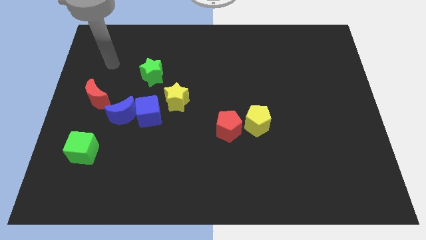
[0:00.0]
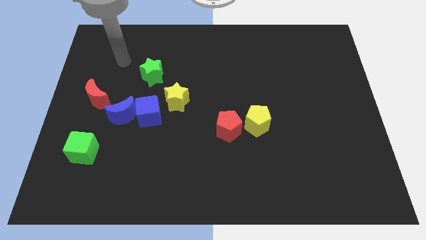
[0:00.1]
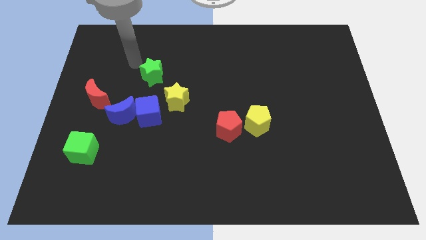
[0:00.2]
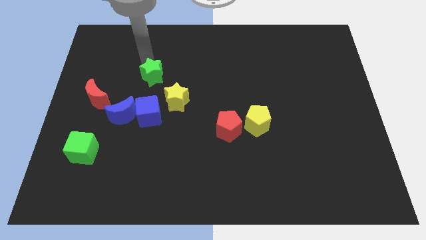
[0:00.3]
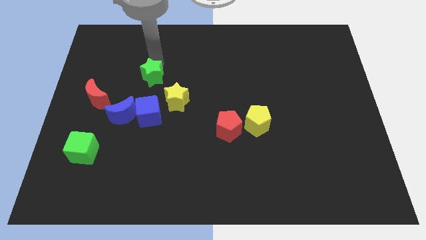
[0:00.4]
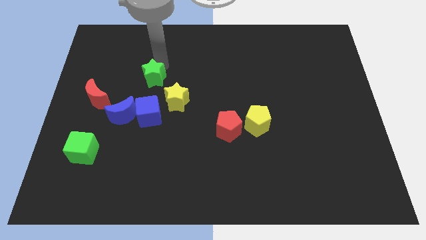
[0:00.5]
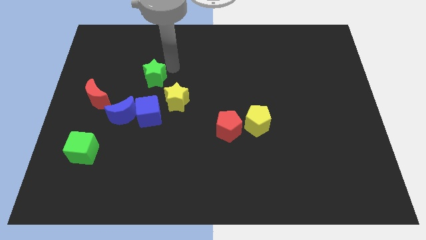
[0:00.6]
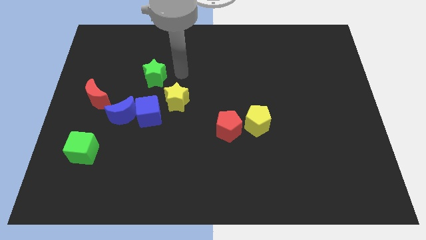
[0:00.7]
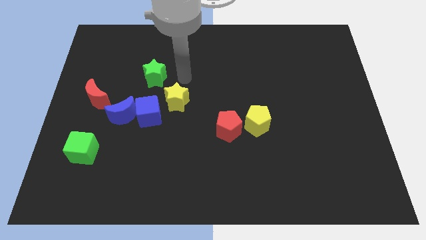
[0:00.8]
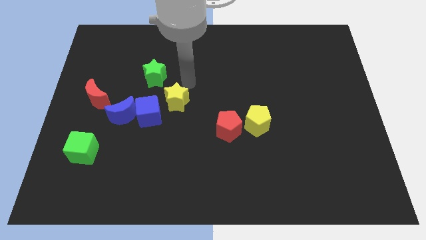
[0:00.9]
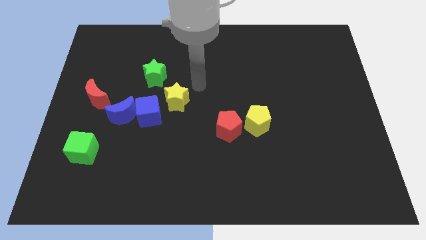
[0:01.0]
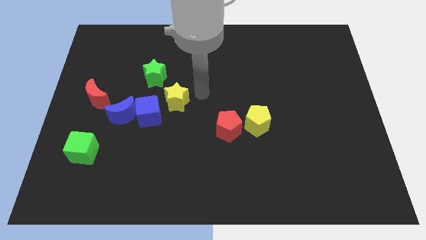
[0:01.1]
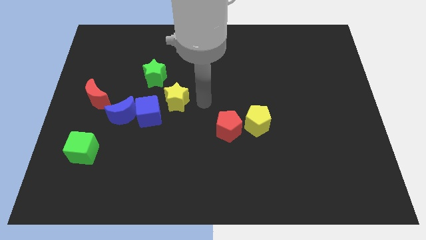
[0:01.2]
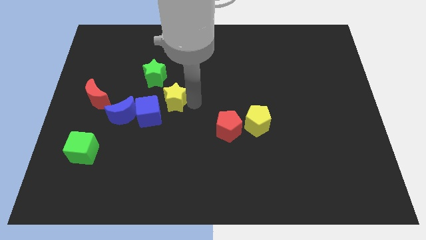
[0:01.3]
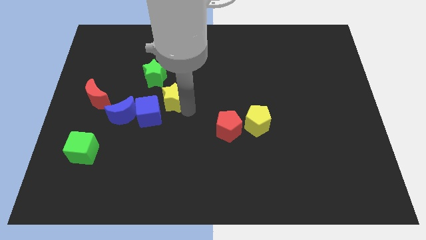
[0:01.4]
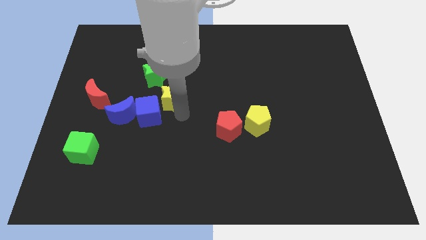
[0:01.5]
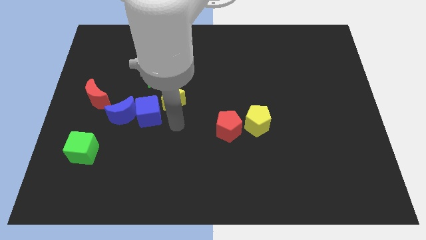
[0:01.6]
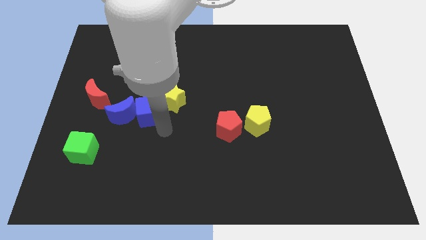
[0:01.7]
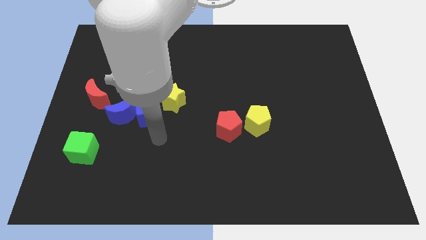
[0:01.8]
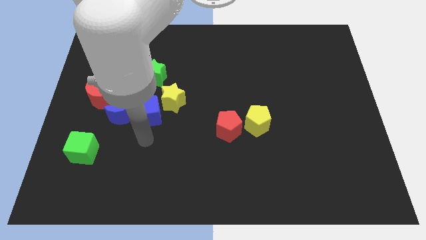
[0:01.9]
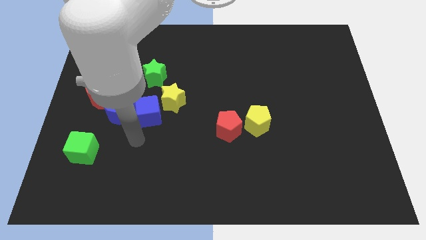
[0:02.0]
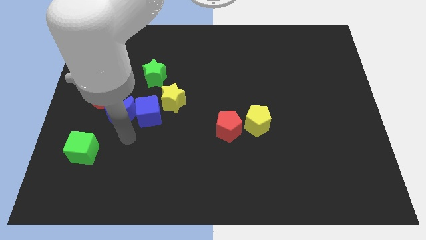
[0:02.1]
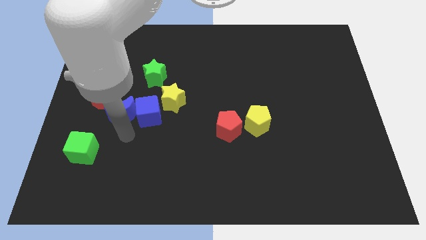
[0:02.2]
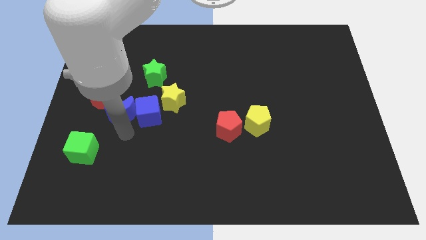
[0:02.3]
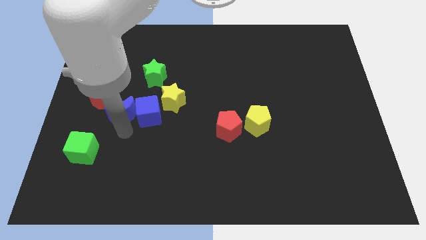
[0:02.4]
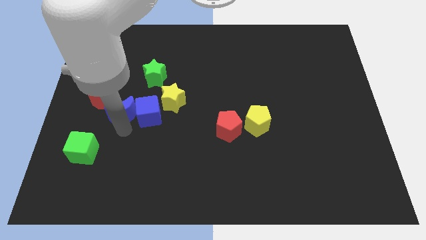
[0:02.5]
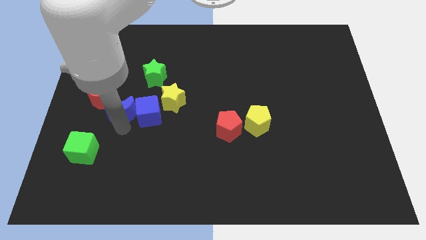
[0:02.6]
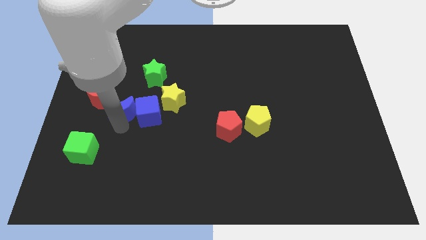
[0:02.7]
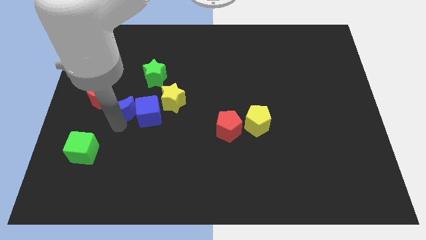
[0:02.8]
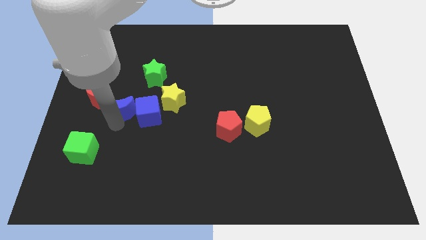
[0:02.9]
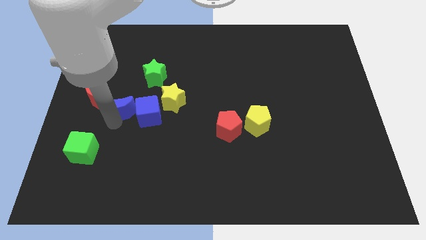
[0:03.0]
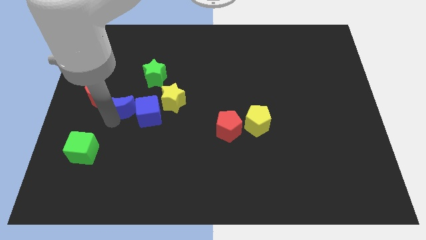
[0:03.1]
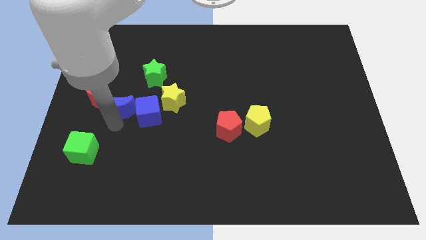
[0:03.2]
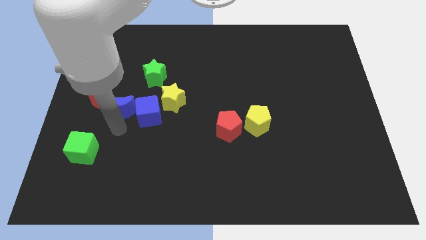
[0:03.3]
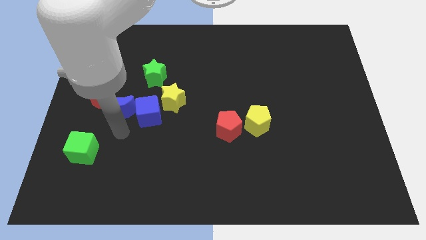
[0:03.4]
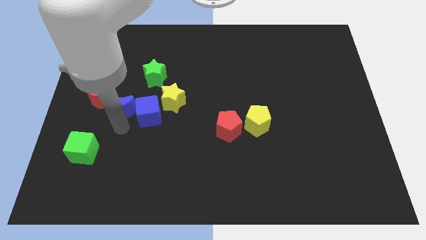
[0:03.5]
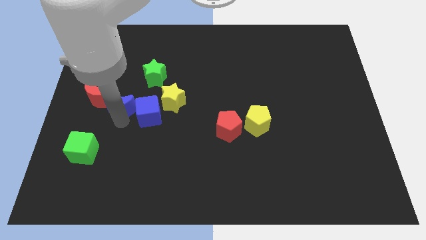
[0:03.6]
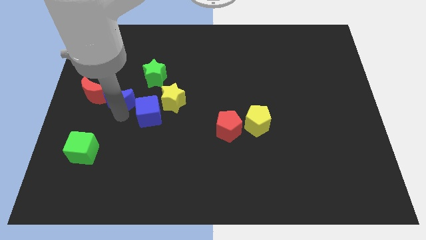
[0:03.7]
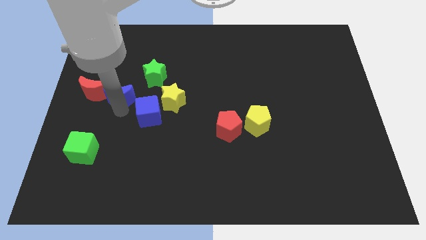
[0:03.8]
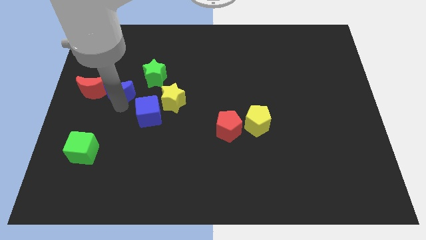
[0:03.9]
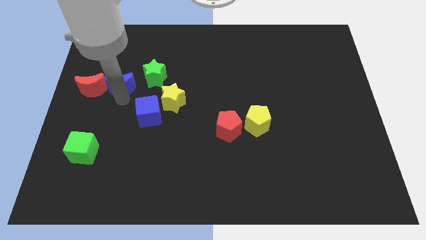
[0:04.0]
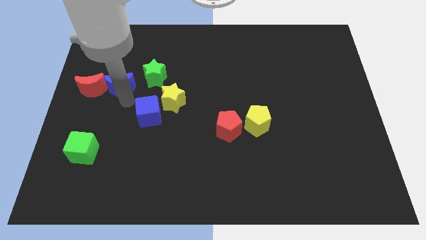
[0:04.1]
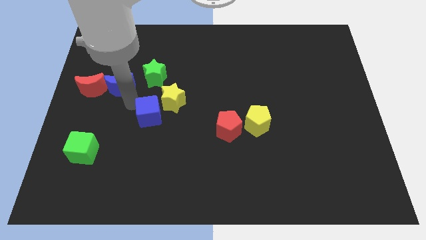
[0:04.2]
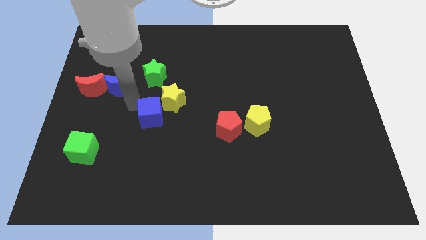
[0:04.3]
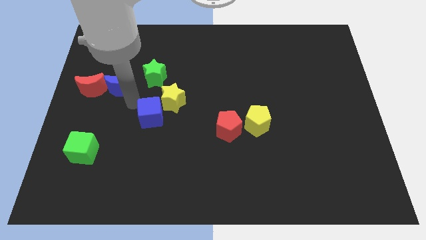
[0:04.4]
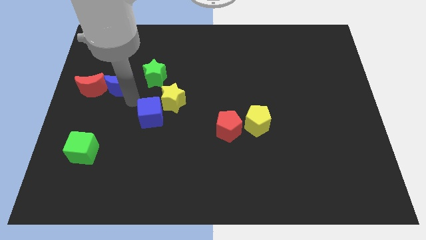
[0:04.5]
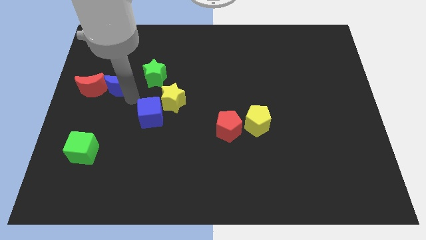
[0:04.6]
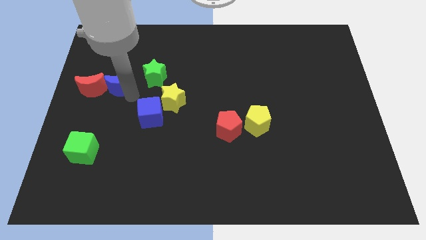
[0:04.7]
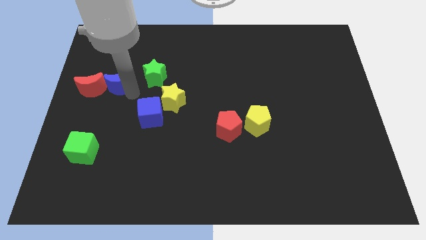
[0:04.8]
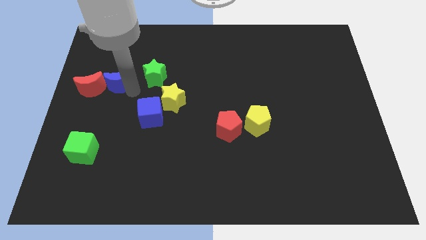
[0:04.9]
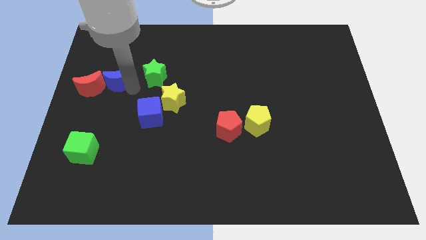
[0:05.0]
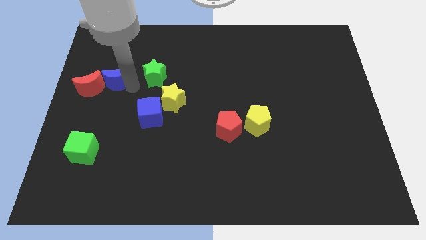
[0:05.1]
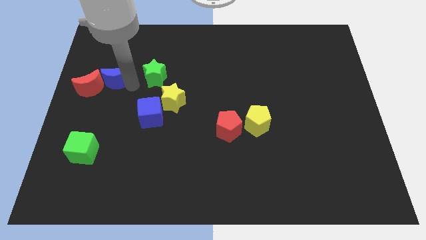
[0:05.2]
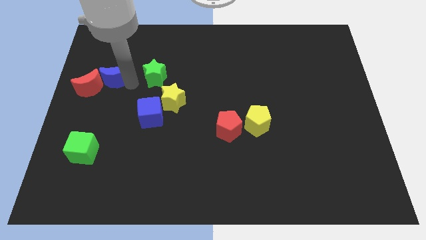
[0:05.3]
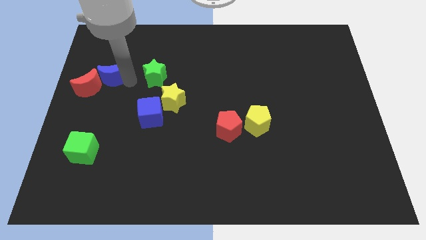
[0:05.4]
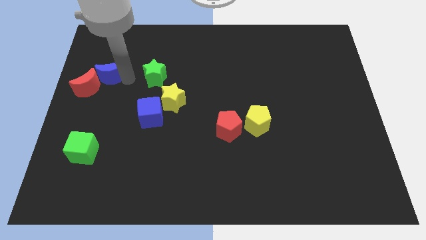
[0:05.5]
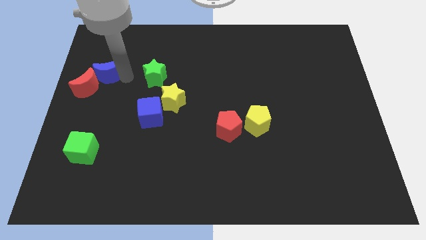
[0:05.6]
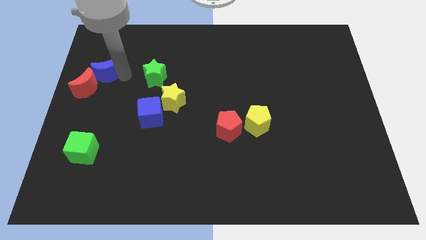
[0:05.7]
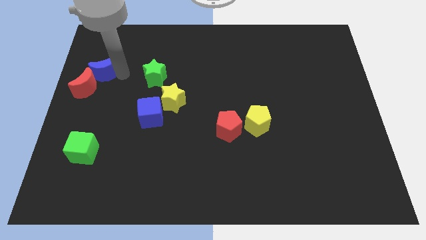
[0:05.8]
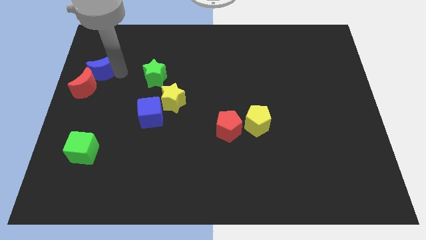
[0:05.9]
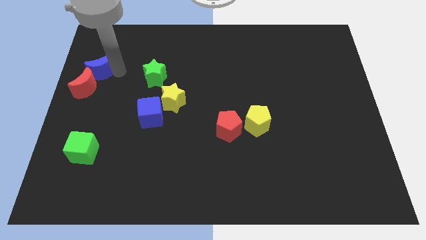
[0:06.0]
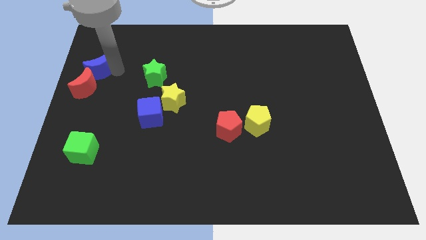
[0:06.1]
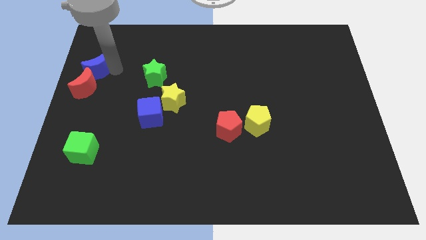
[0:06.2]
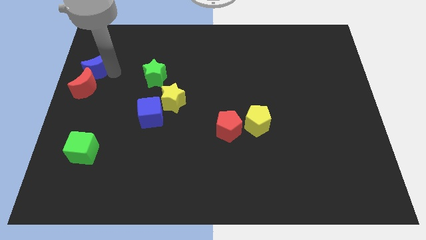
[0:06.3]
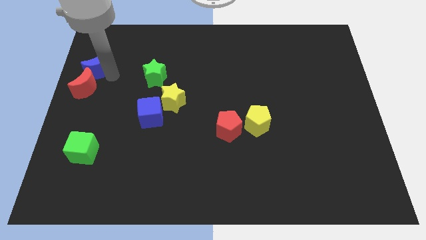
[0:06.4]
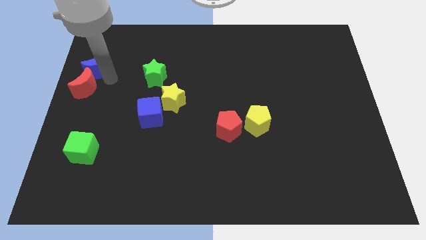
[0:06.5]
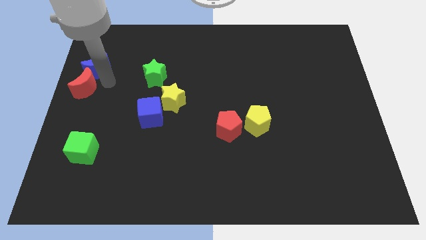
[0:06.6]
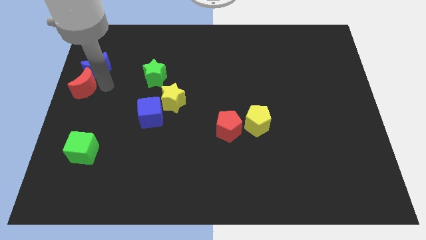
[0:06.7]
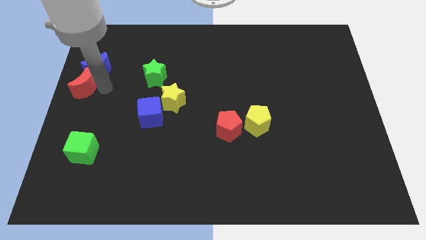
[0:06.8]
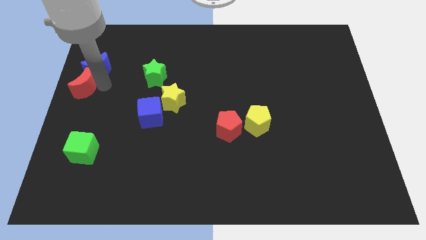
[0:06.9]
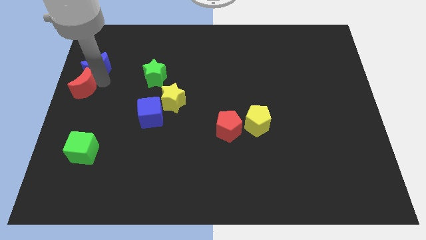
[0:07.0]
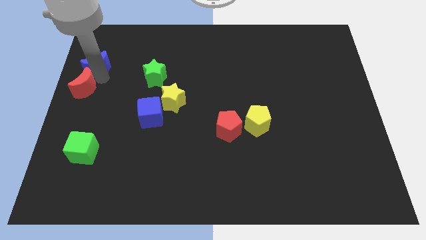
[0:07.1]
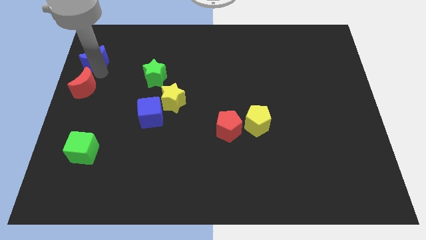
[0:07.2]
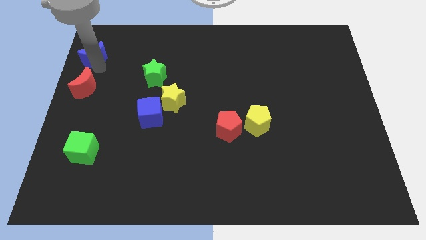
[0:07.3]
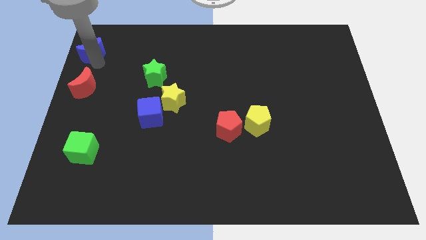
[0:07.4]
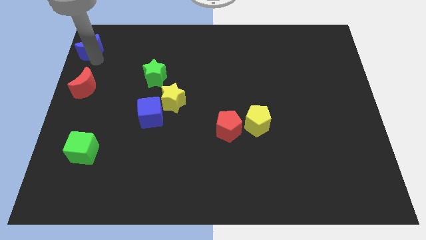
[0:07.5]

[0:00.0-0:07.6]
move the blue moon to the top left of the board
